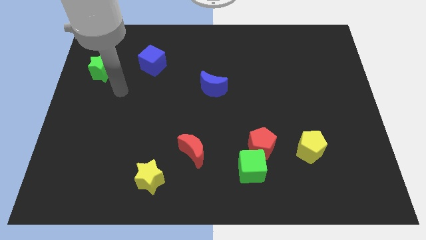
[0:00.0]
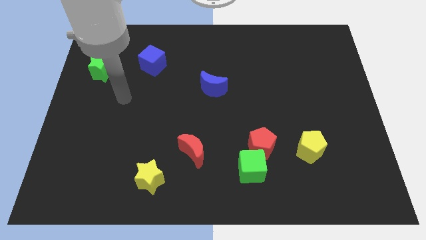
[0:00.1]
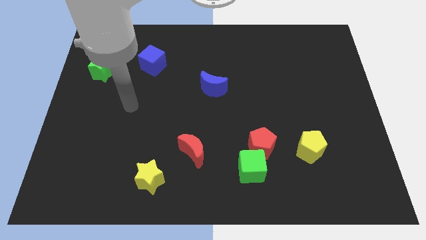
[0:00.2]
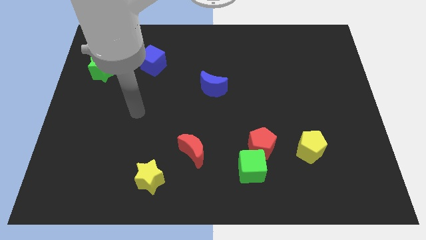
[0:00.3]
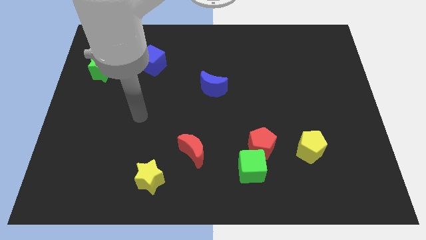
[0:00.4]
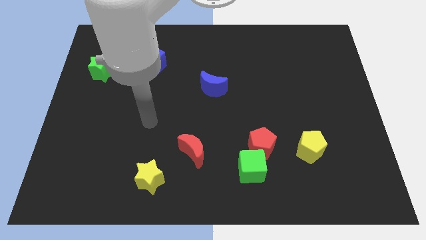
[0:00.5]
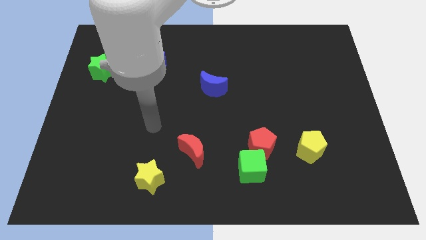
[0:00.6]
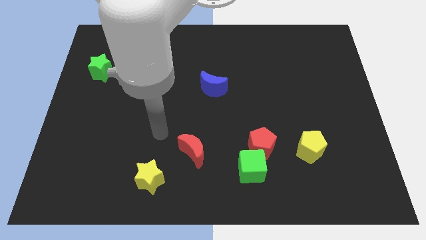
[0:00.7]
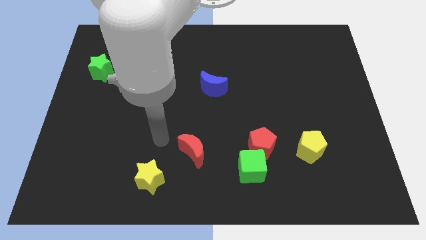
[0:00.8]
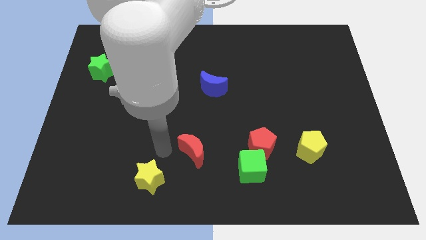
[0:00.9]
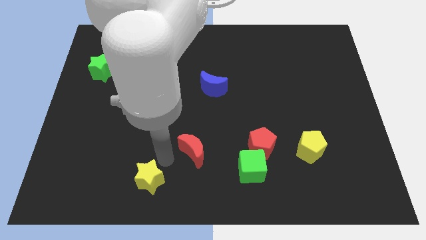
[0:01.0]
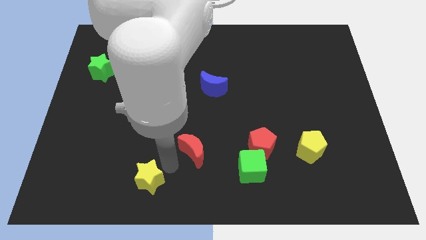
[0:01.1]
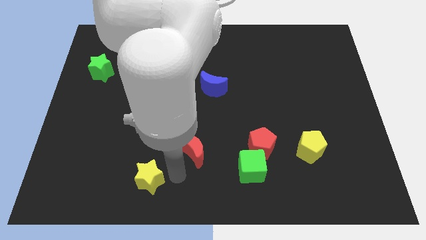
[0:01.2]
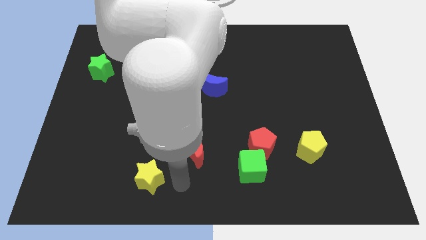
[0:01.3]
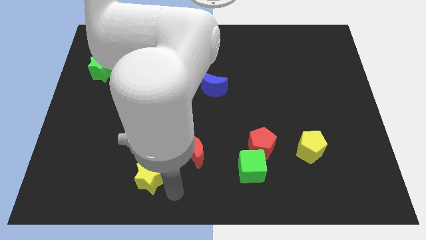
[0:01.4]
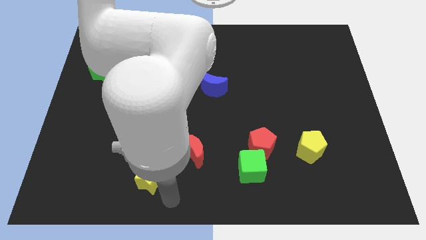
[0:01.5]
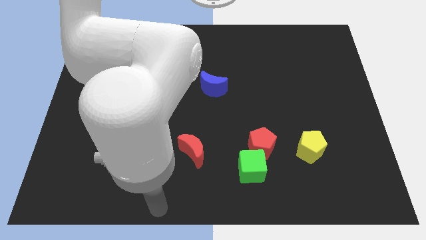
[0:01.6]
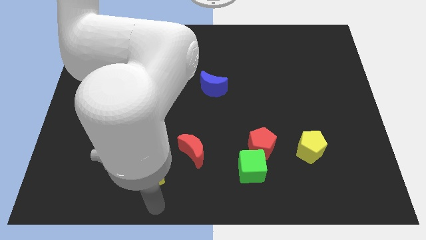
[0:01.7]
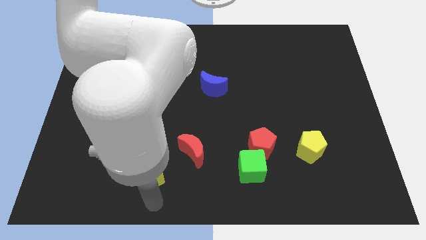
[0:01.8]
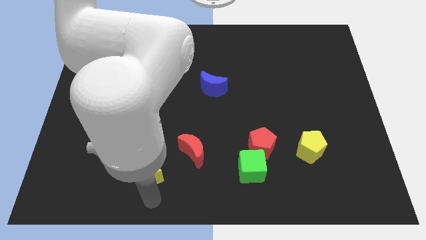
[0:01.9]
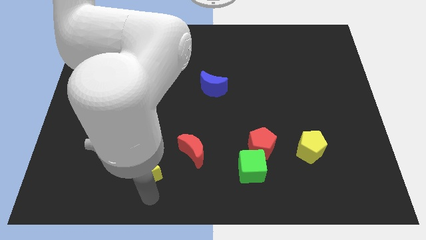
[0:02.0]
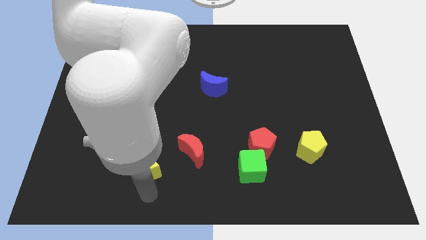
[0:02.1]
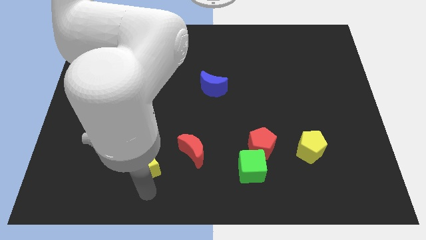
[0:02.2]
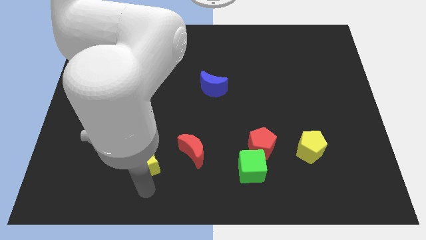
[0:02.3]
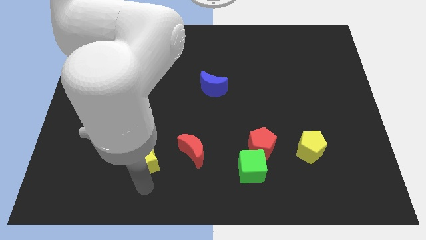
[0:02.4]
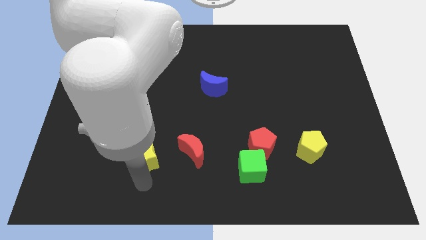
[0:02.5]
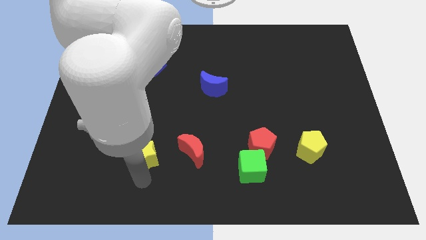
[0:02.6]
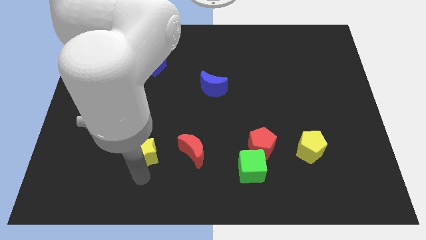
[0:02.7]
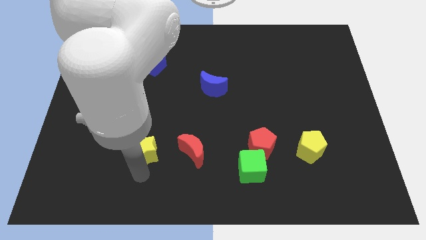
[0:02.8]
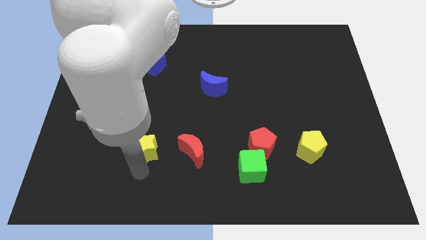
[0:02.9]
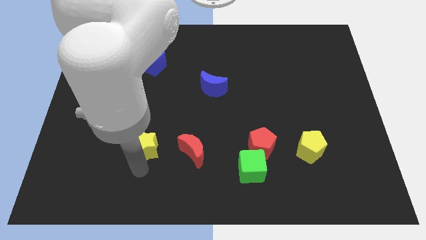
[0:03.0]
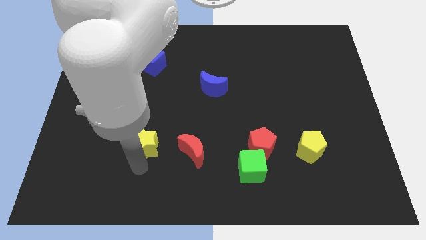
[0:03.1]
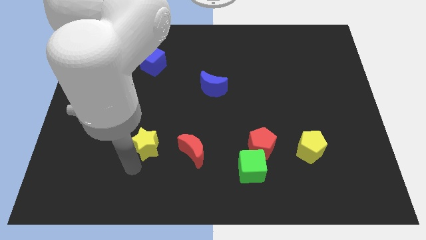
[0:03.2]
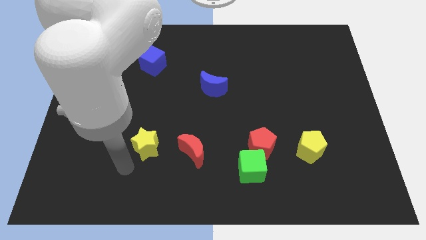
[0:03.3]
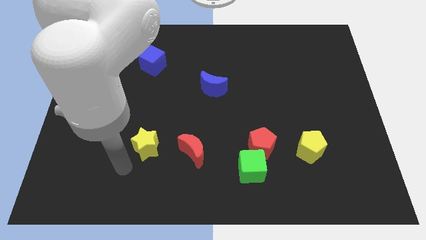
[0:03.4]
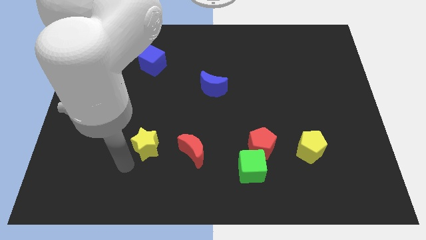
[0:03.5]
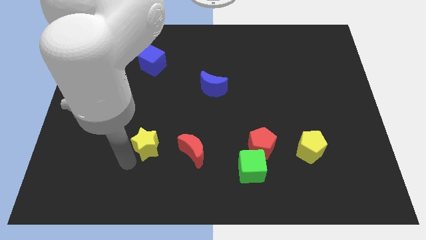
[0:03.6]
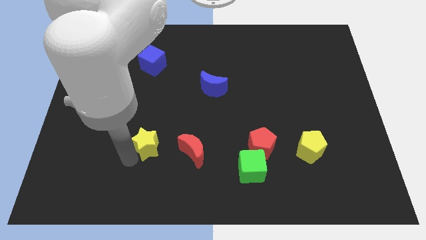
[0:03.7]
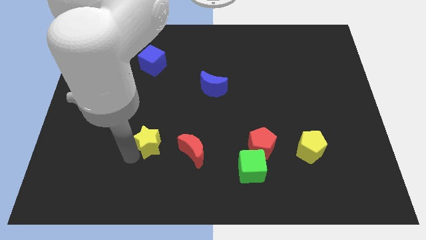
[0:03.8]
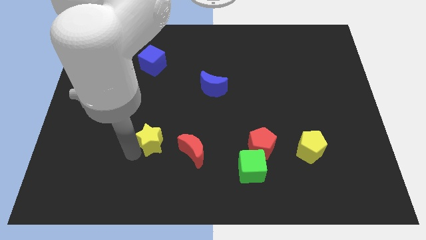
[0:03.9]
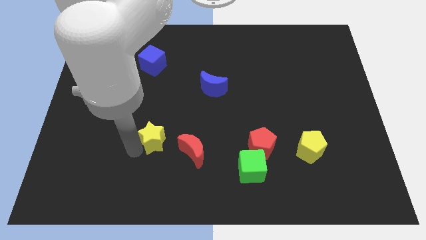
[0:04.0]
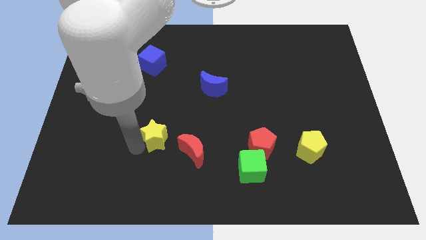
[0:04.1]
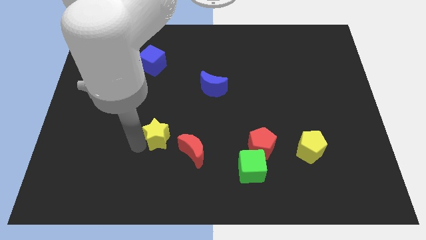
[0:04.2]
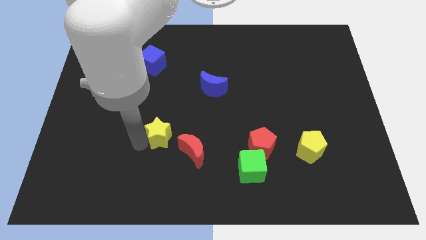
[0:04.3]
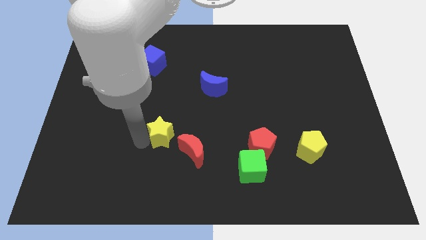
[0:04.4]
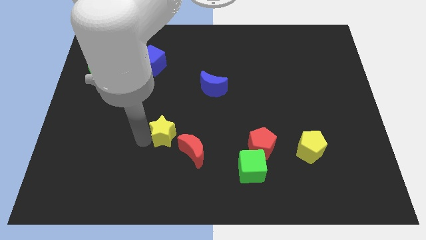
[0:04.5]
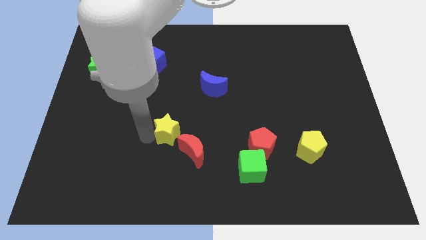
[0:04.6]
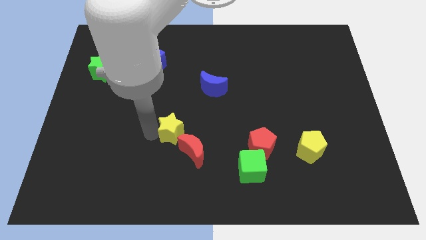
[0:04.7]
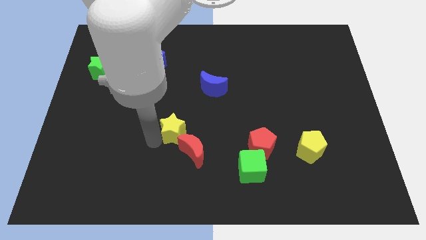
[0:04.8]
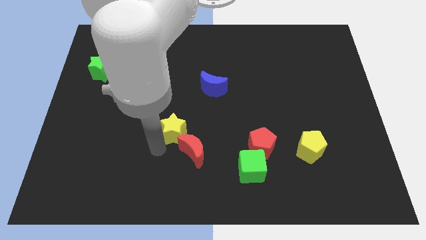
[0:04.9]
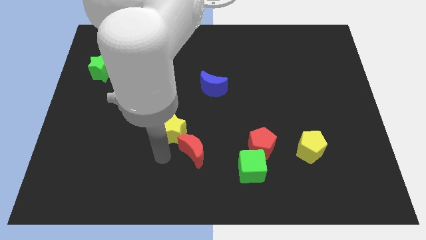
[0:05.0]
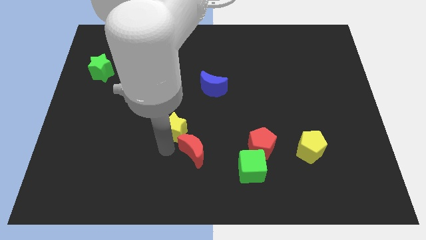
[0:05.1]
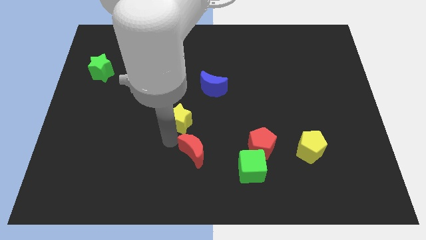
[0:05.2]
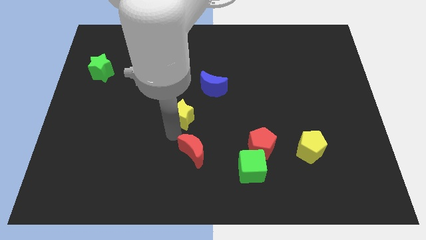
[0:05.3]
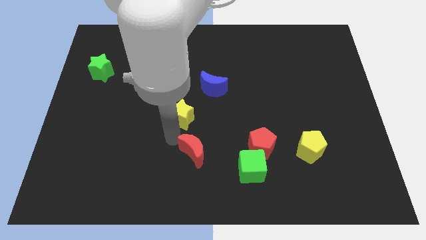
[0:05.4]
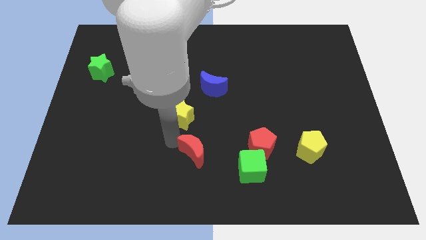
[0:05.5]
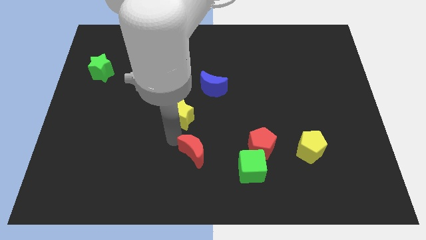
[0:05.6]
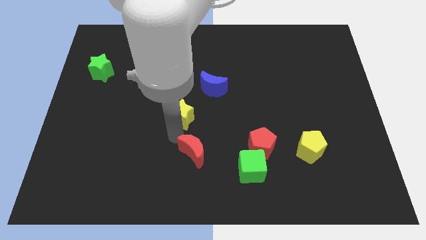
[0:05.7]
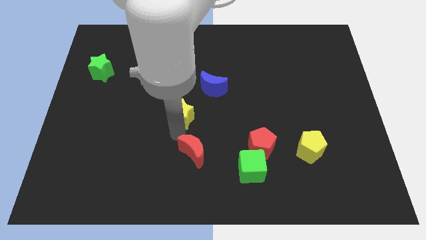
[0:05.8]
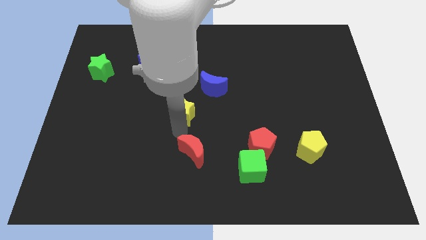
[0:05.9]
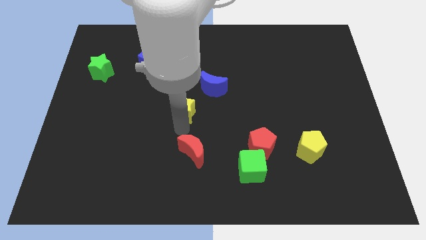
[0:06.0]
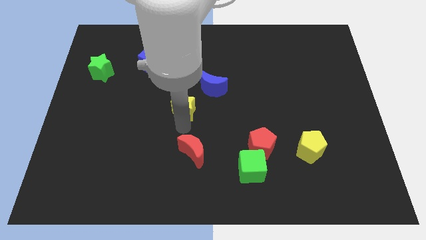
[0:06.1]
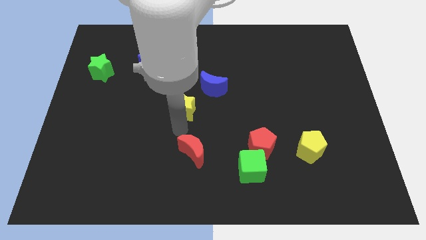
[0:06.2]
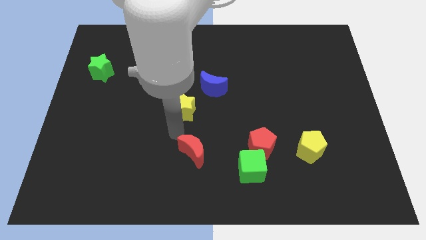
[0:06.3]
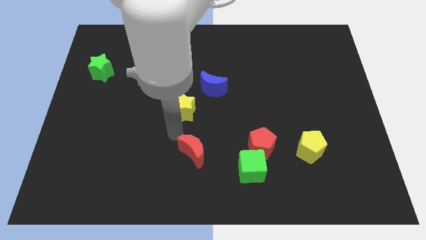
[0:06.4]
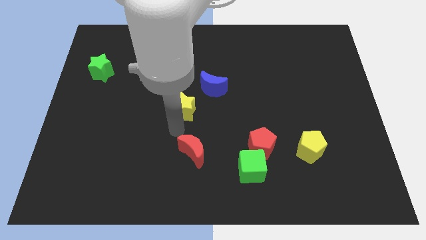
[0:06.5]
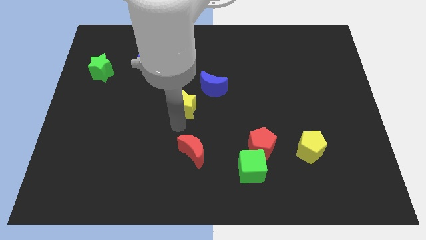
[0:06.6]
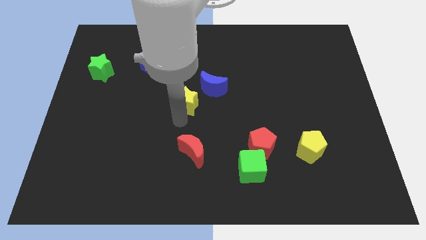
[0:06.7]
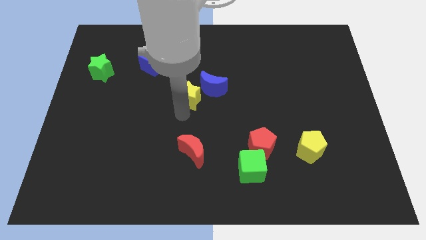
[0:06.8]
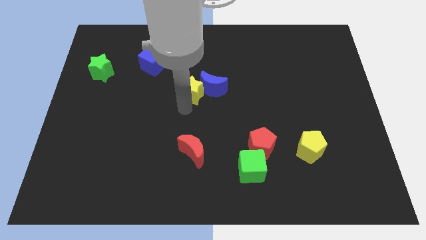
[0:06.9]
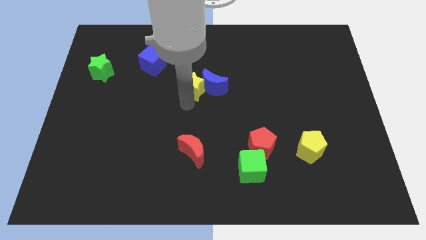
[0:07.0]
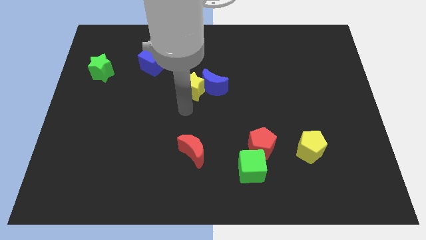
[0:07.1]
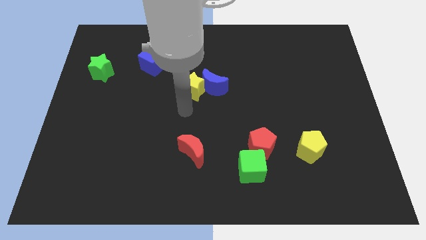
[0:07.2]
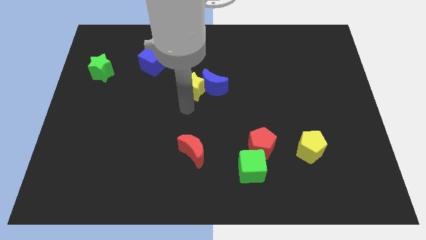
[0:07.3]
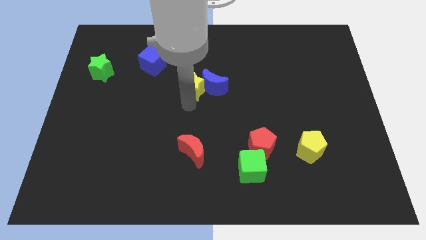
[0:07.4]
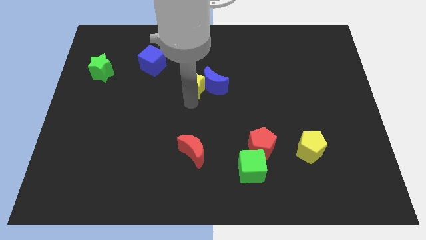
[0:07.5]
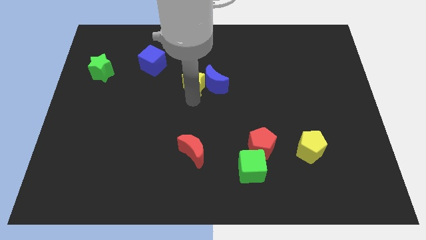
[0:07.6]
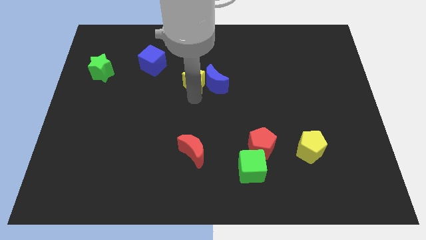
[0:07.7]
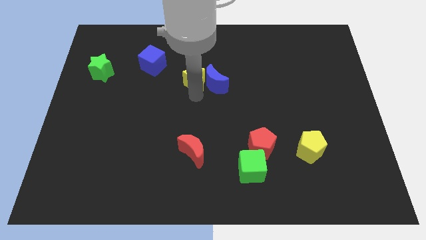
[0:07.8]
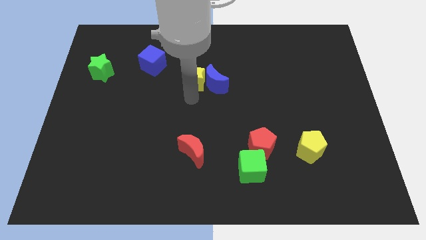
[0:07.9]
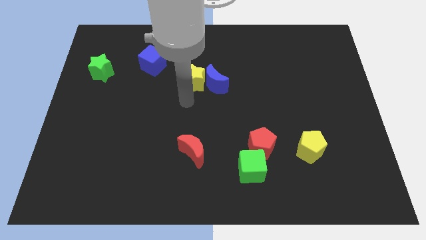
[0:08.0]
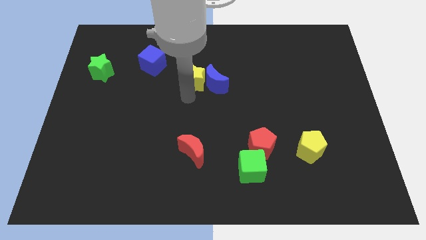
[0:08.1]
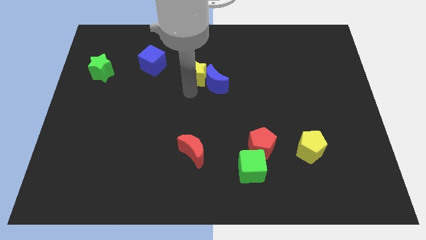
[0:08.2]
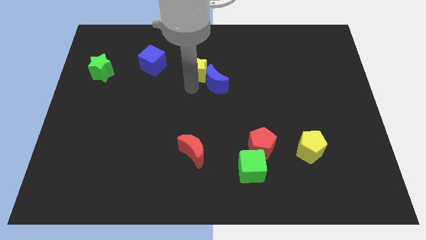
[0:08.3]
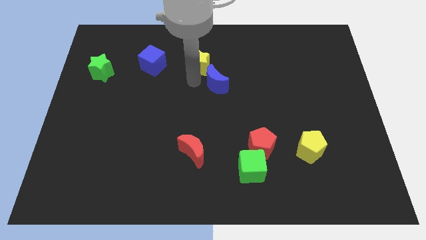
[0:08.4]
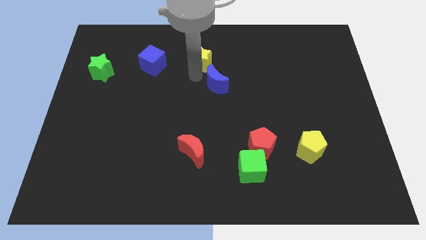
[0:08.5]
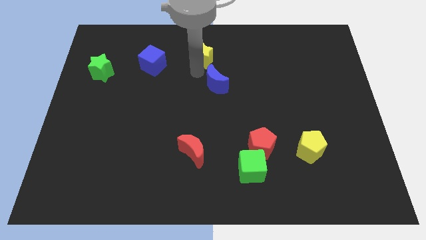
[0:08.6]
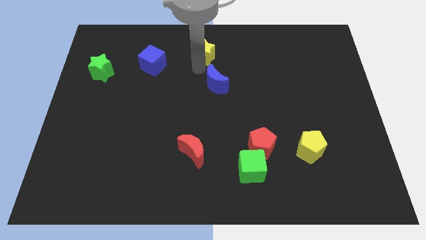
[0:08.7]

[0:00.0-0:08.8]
slide the yellow star to the top
